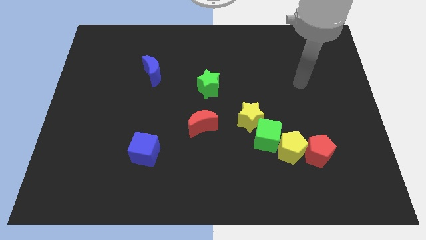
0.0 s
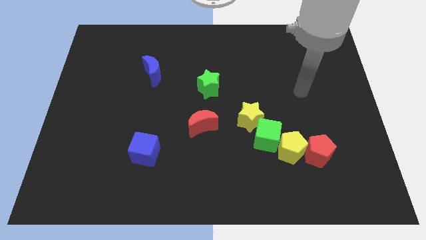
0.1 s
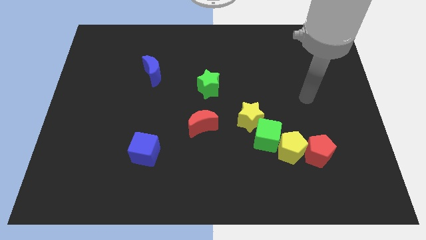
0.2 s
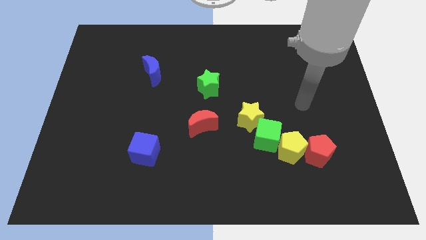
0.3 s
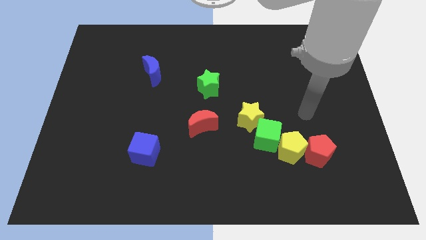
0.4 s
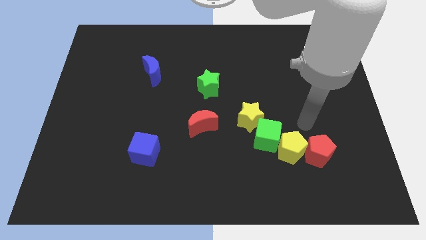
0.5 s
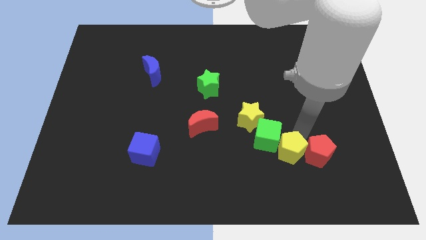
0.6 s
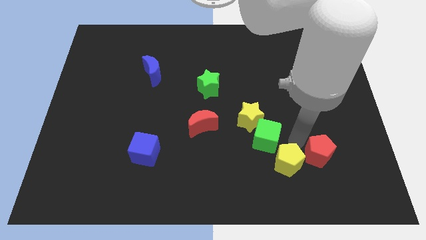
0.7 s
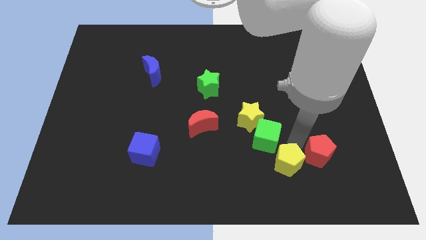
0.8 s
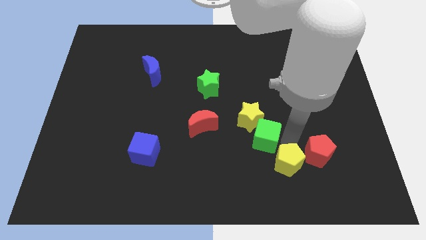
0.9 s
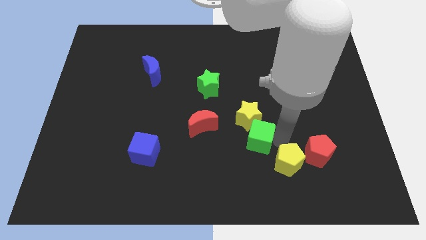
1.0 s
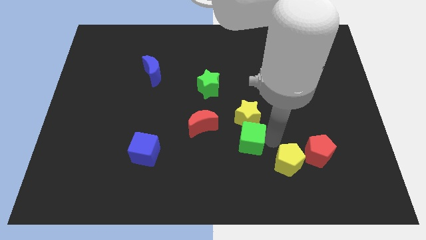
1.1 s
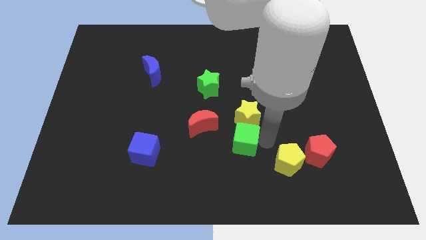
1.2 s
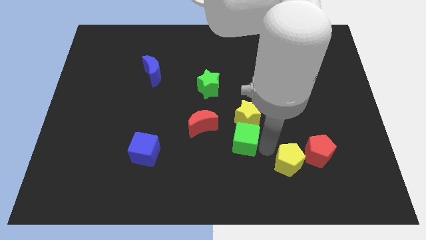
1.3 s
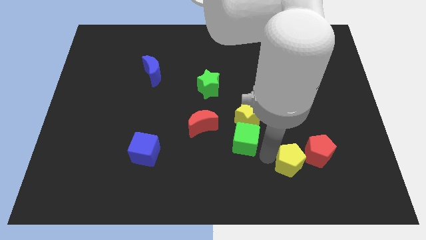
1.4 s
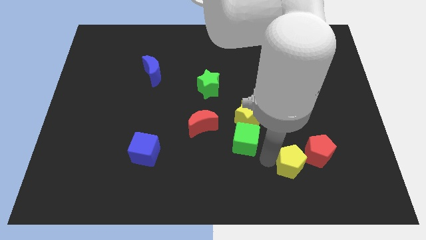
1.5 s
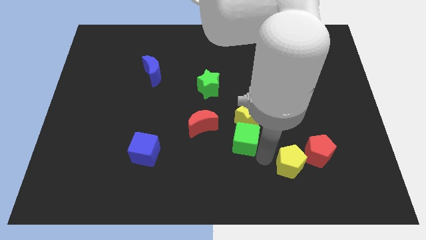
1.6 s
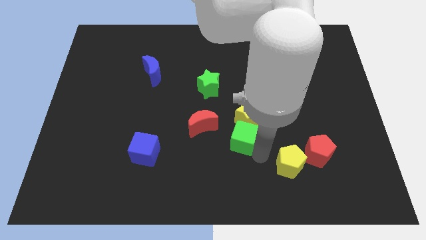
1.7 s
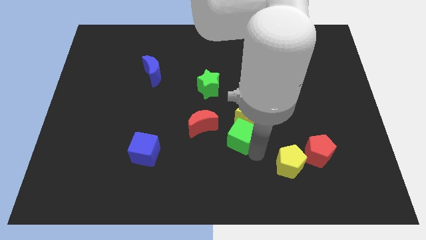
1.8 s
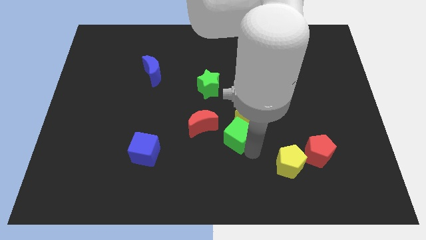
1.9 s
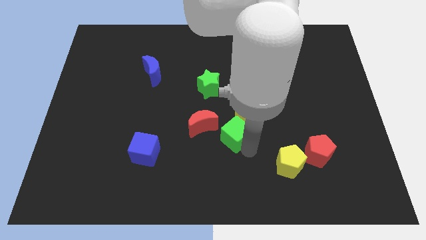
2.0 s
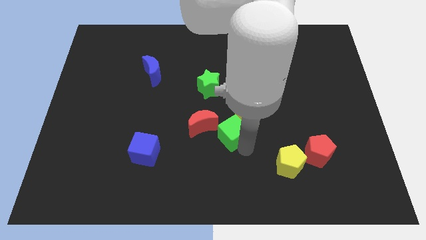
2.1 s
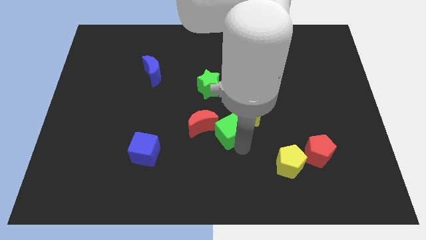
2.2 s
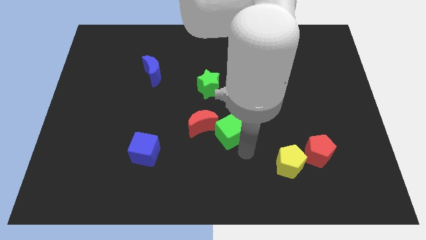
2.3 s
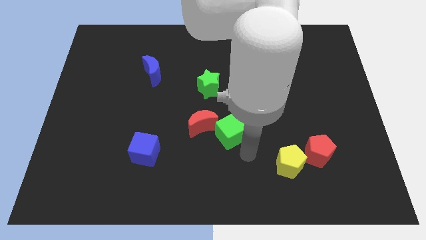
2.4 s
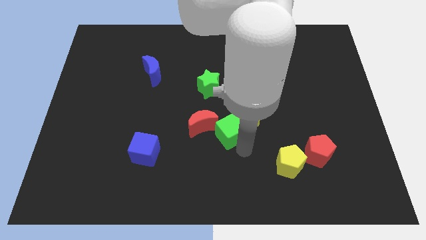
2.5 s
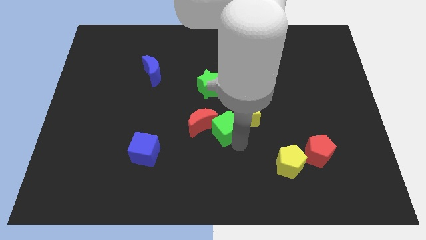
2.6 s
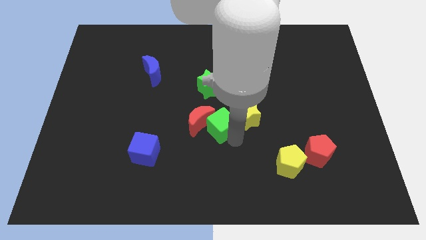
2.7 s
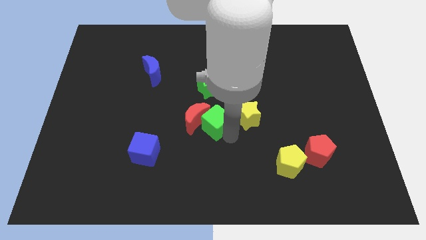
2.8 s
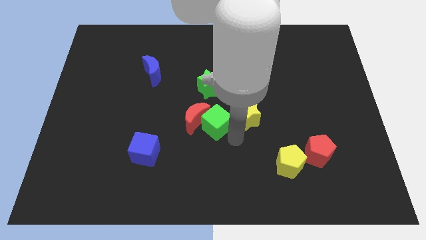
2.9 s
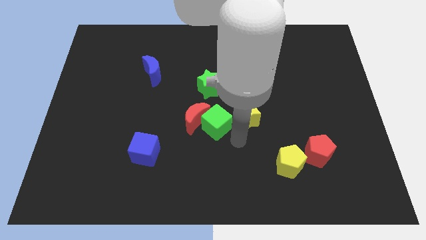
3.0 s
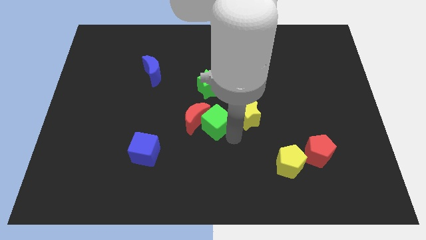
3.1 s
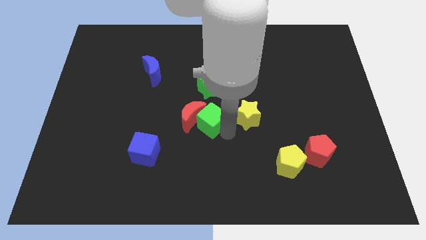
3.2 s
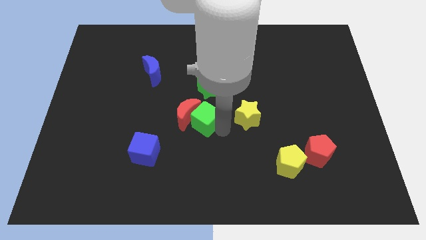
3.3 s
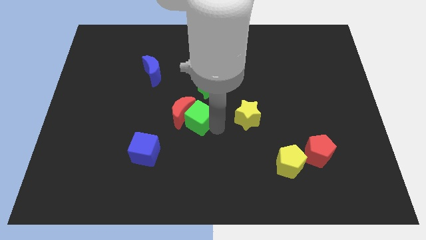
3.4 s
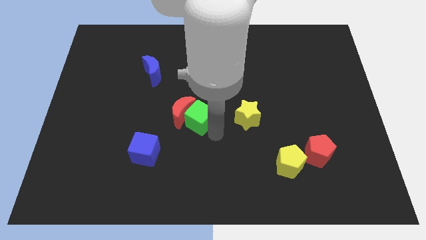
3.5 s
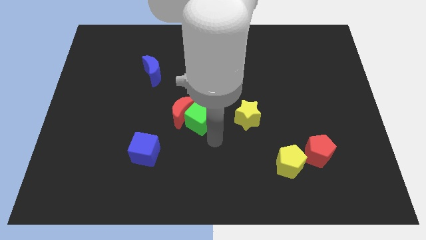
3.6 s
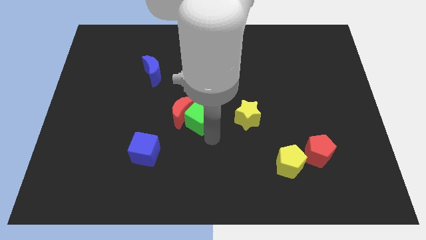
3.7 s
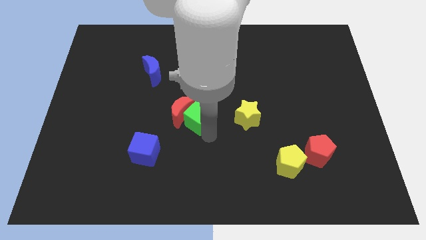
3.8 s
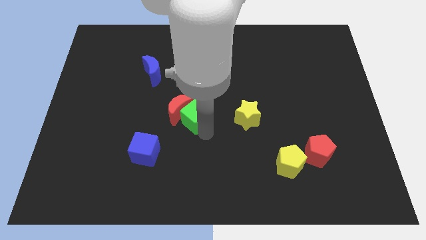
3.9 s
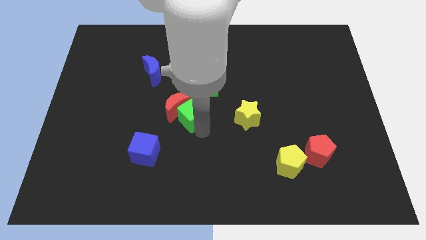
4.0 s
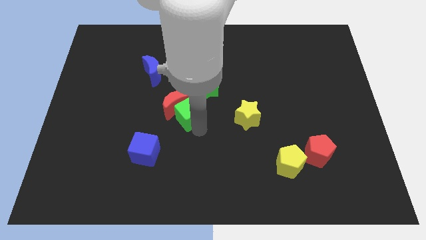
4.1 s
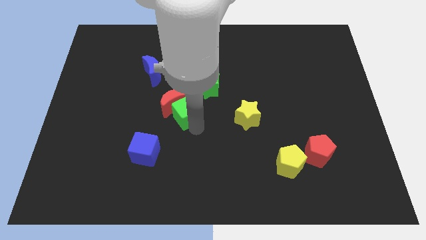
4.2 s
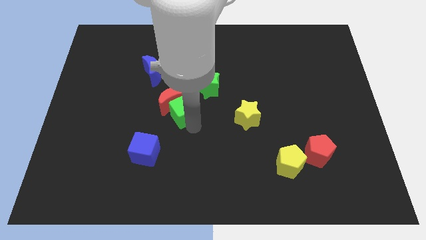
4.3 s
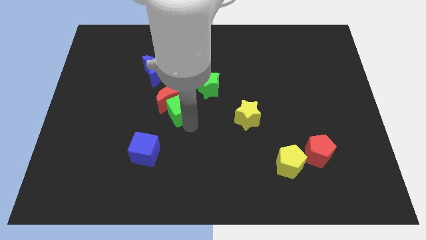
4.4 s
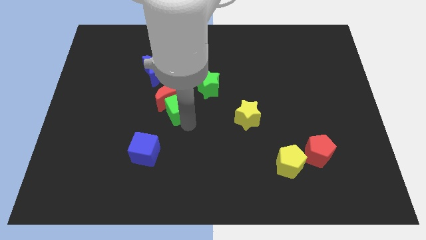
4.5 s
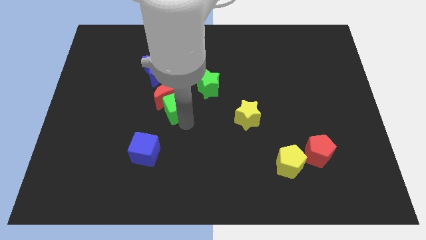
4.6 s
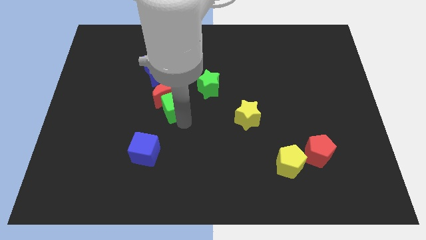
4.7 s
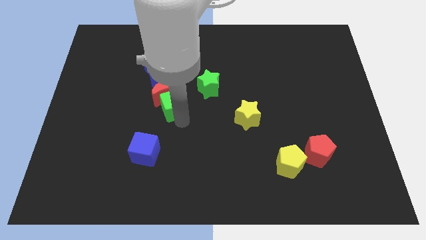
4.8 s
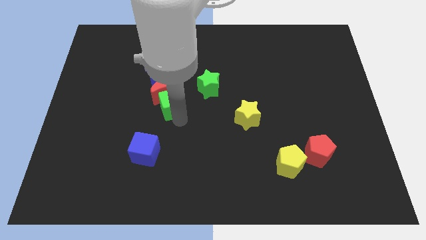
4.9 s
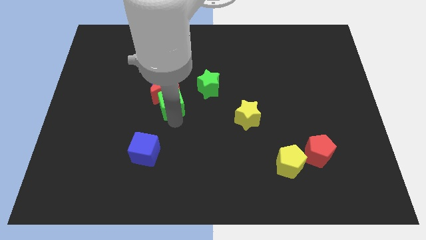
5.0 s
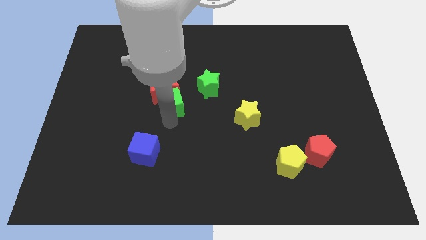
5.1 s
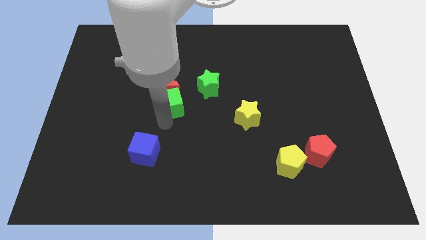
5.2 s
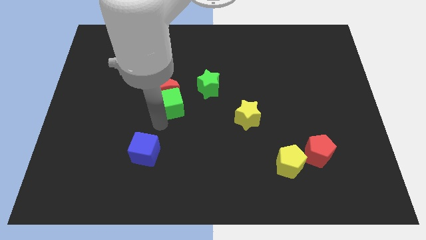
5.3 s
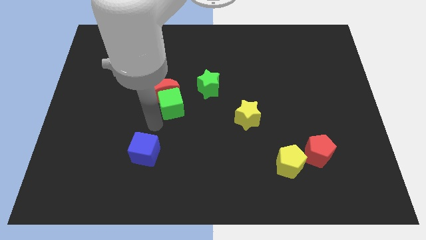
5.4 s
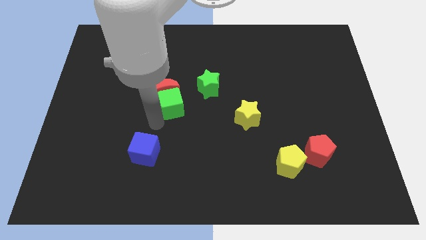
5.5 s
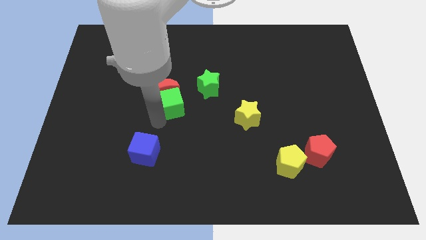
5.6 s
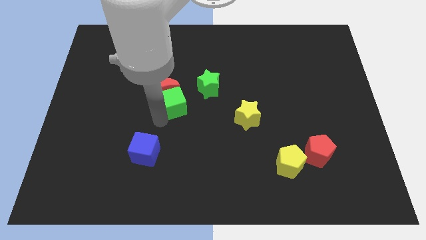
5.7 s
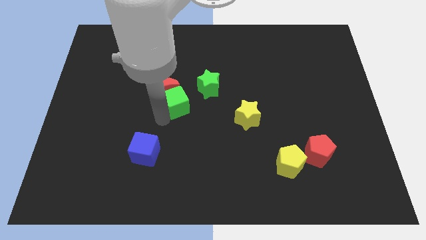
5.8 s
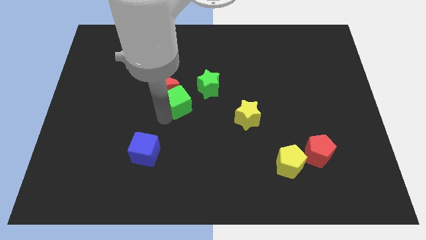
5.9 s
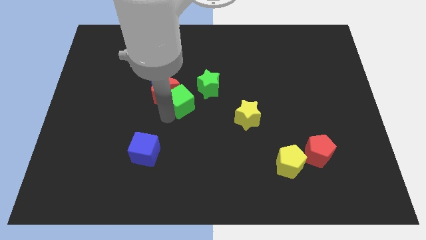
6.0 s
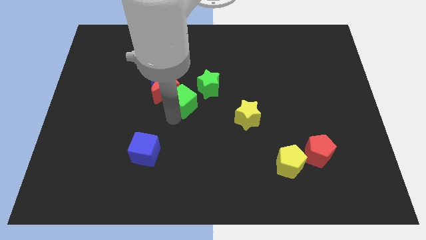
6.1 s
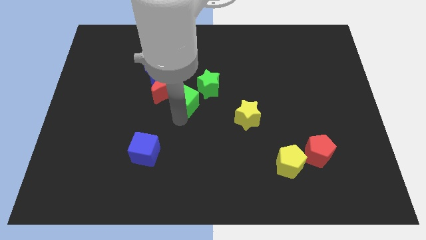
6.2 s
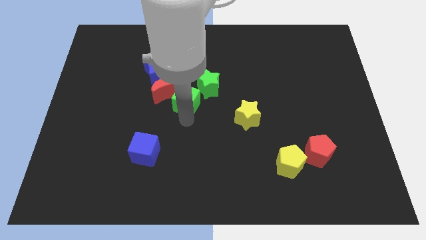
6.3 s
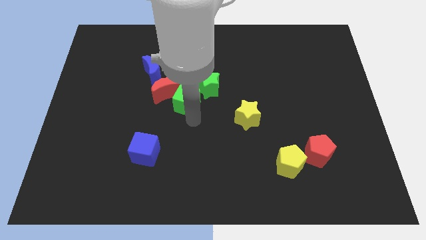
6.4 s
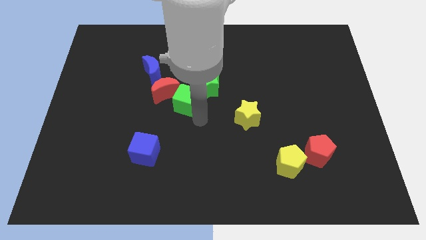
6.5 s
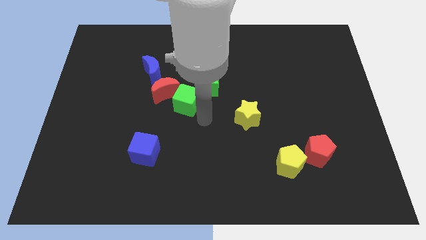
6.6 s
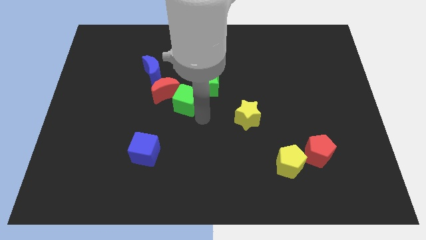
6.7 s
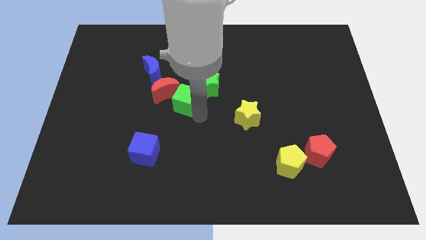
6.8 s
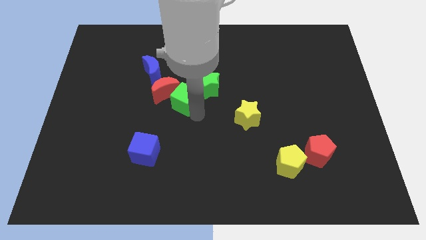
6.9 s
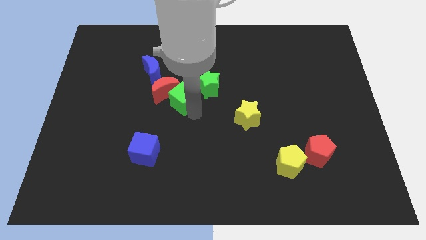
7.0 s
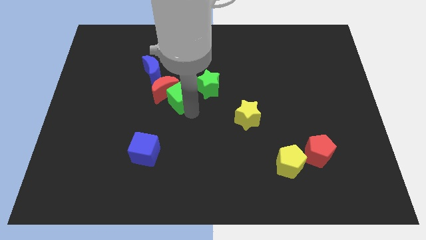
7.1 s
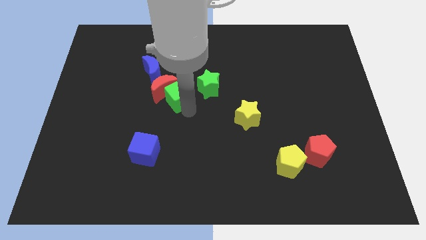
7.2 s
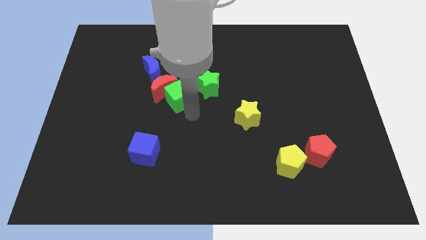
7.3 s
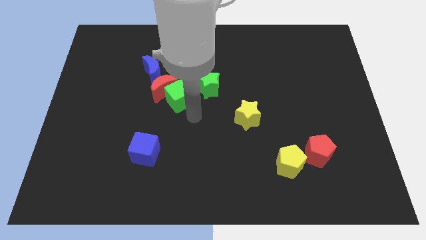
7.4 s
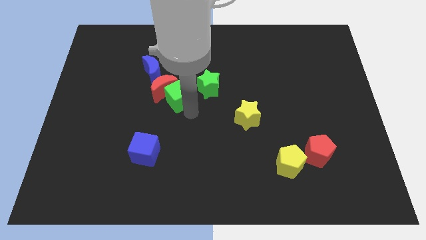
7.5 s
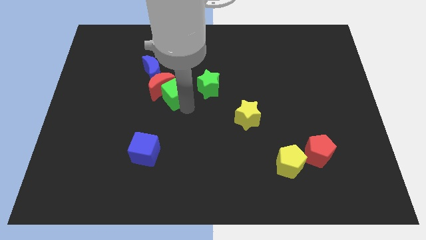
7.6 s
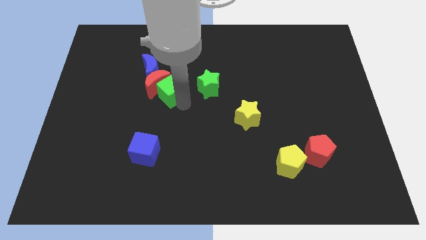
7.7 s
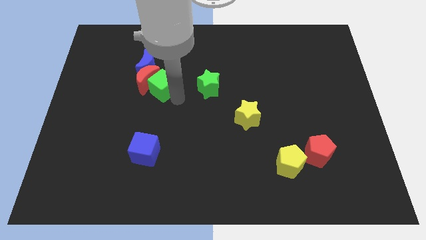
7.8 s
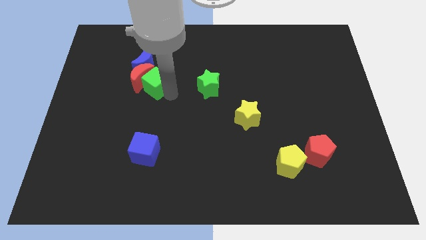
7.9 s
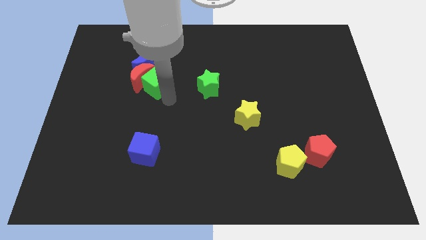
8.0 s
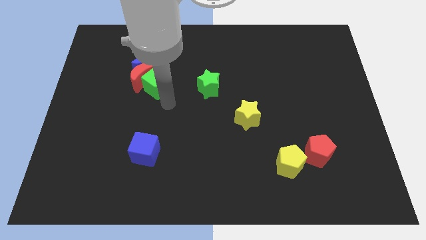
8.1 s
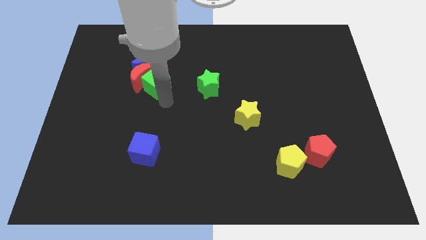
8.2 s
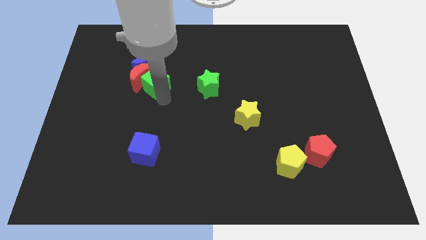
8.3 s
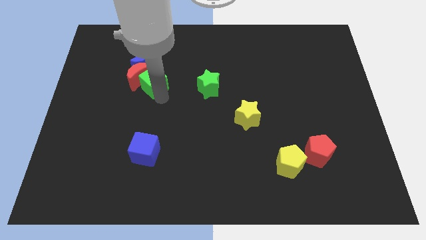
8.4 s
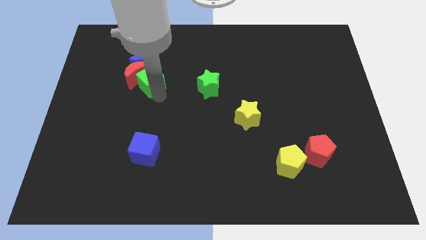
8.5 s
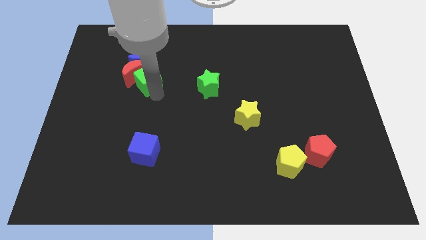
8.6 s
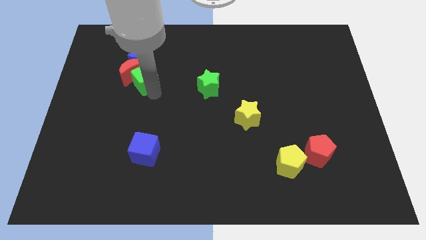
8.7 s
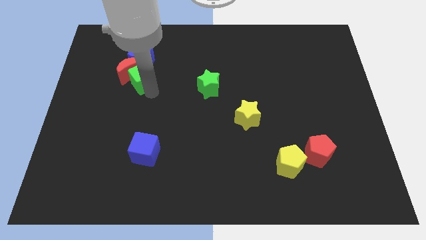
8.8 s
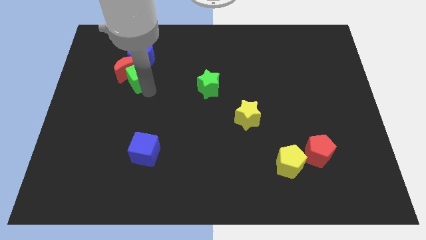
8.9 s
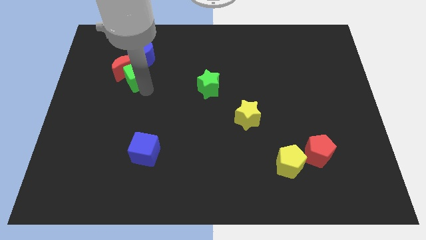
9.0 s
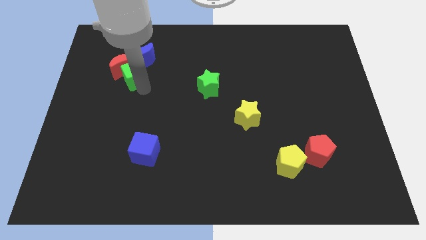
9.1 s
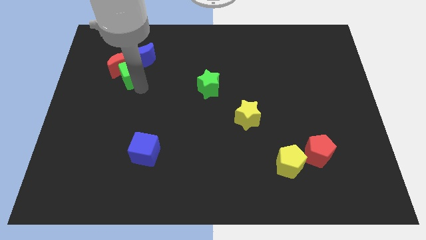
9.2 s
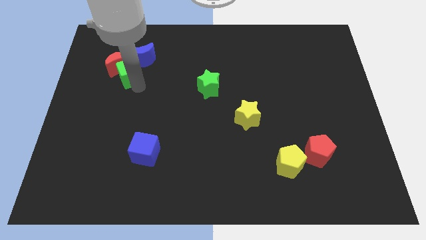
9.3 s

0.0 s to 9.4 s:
put the green cube to the blue moon
